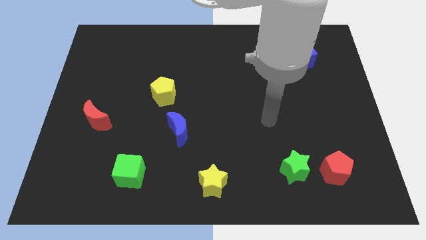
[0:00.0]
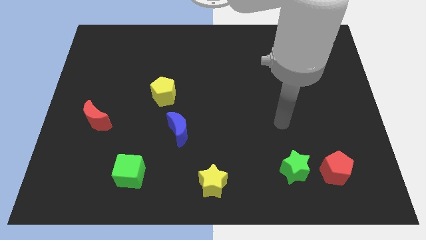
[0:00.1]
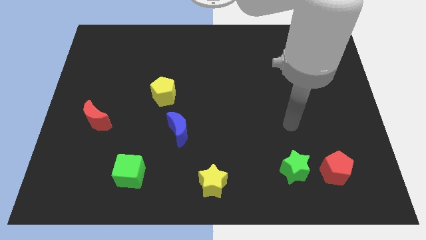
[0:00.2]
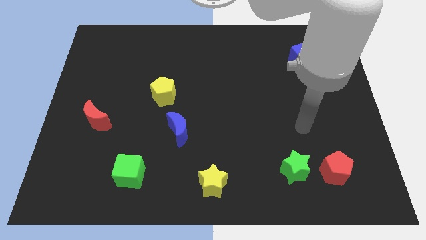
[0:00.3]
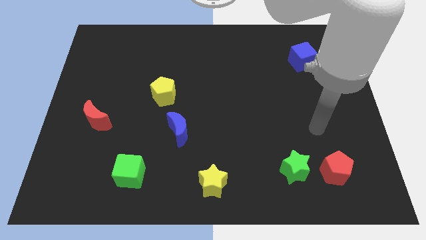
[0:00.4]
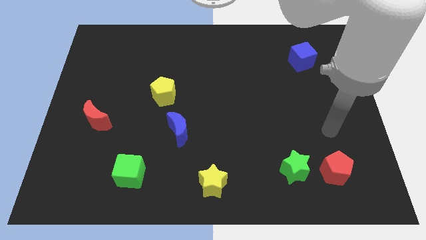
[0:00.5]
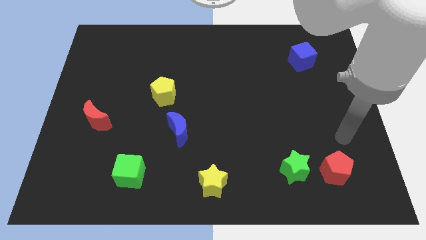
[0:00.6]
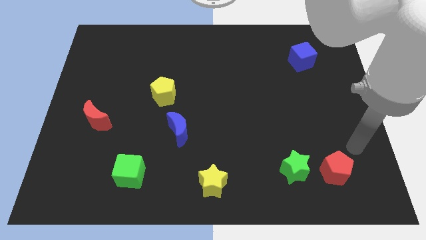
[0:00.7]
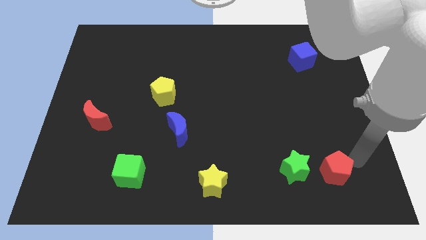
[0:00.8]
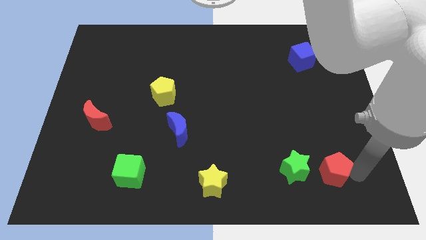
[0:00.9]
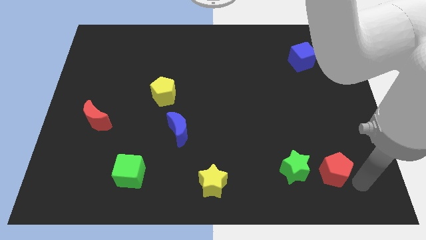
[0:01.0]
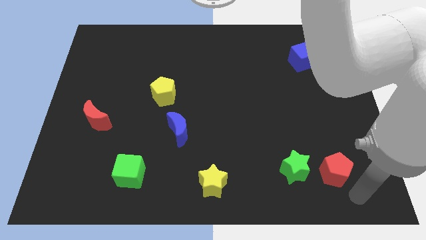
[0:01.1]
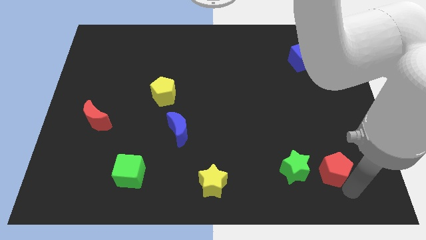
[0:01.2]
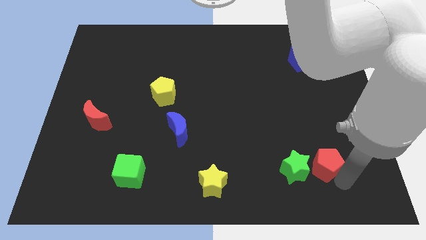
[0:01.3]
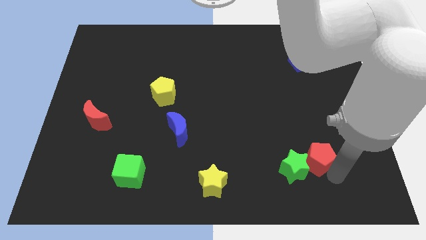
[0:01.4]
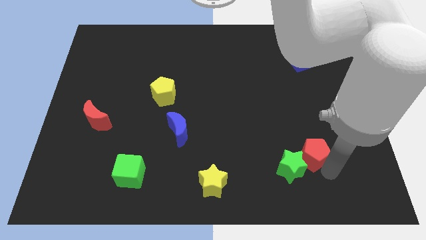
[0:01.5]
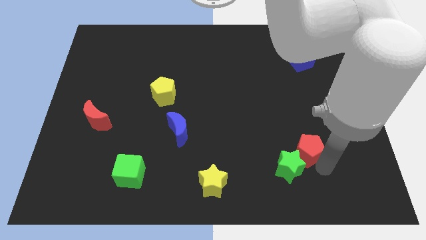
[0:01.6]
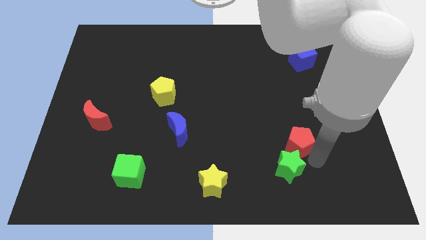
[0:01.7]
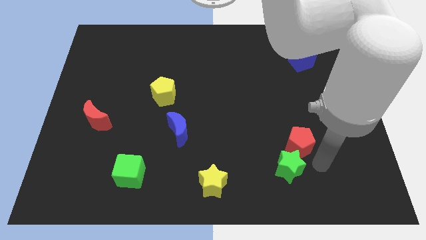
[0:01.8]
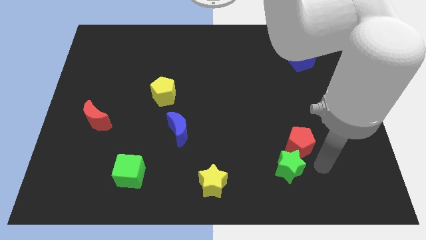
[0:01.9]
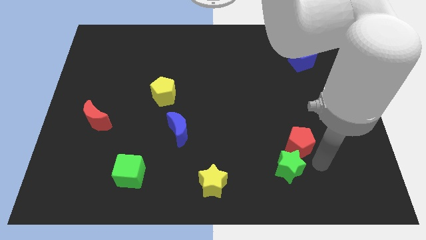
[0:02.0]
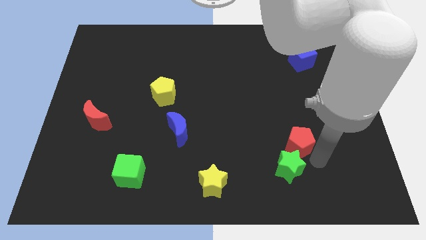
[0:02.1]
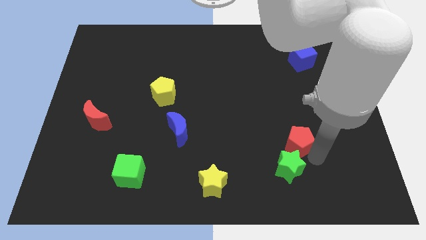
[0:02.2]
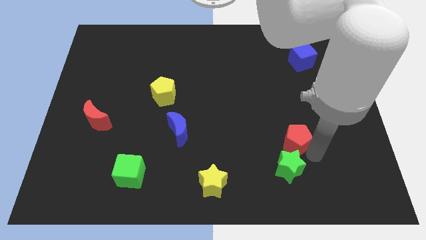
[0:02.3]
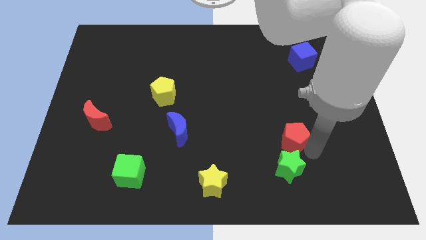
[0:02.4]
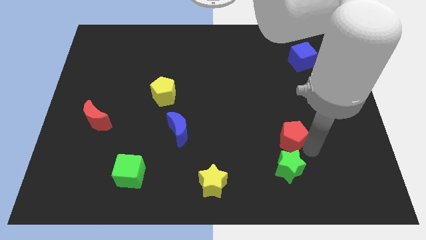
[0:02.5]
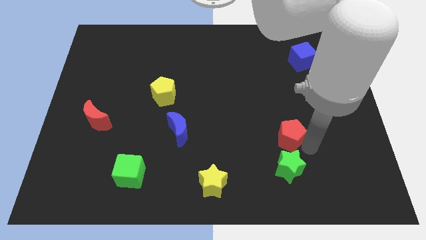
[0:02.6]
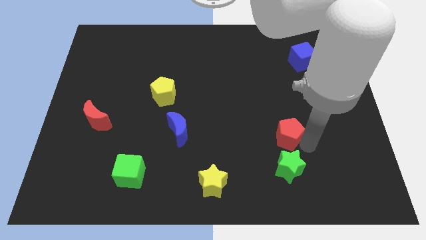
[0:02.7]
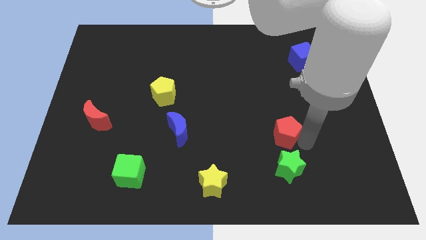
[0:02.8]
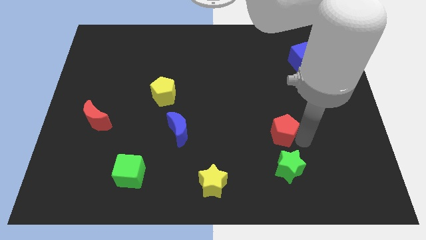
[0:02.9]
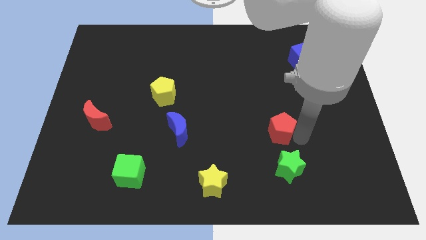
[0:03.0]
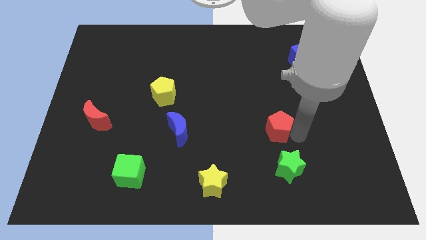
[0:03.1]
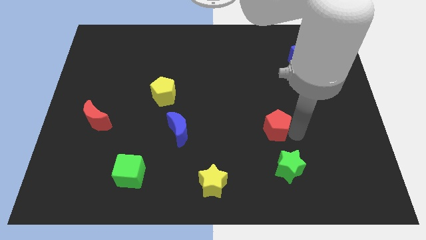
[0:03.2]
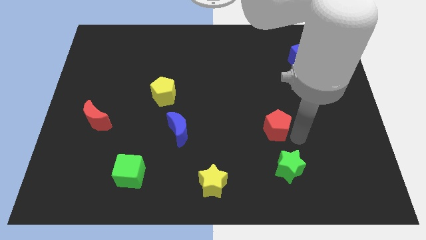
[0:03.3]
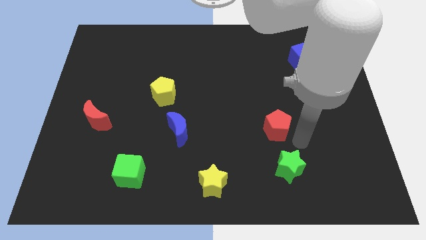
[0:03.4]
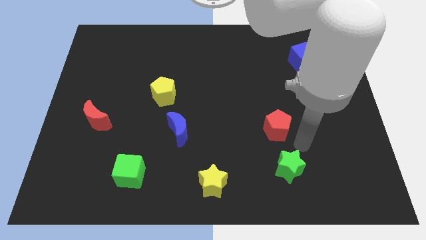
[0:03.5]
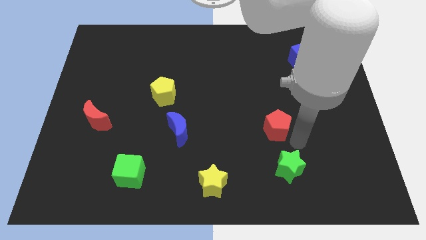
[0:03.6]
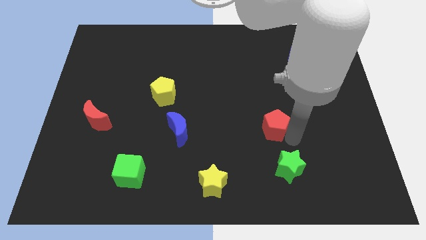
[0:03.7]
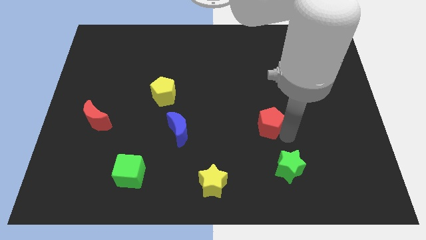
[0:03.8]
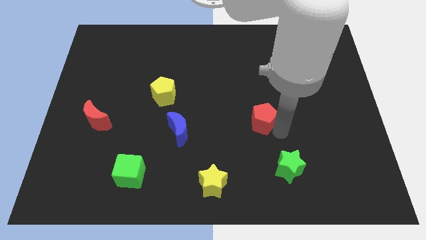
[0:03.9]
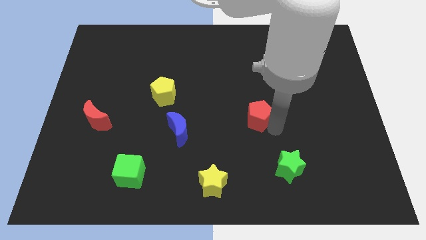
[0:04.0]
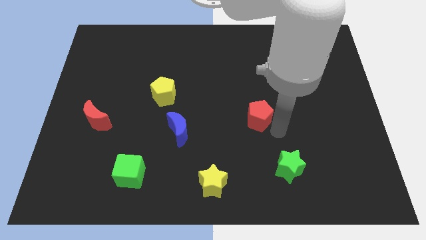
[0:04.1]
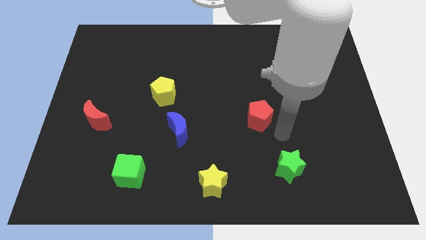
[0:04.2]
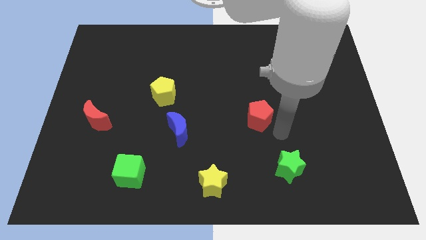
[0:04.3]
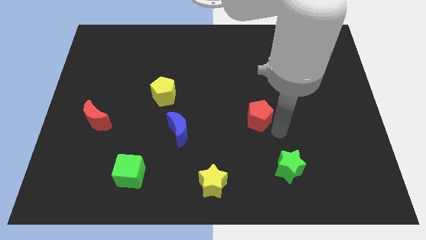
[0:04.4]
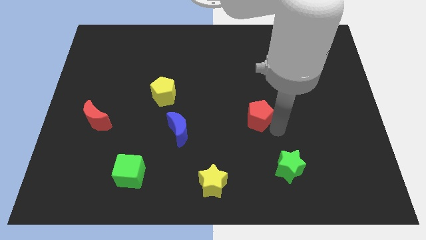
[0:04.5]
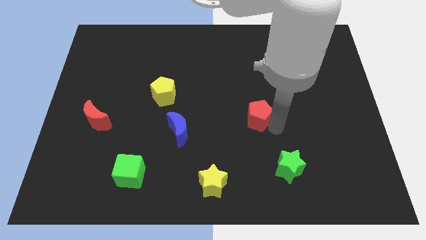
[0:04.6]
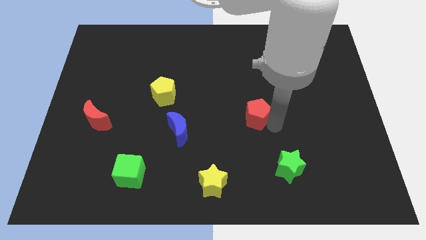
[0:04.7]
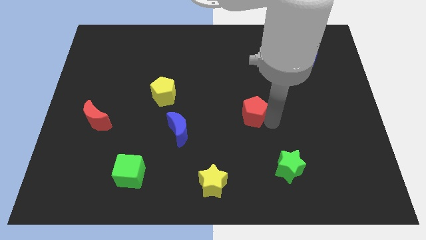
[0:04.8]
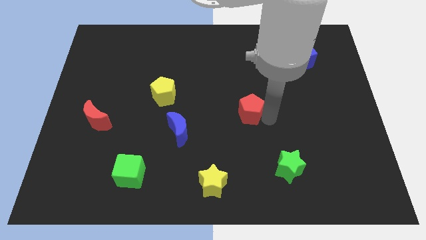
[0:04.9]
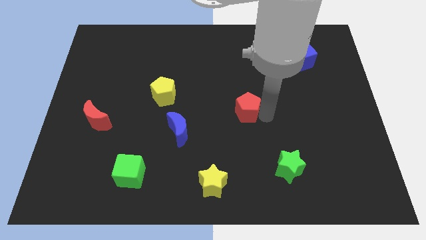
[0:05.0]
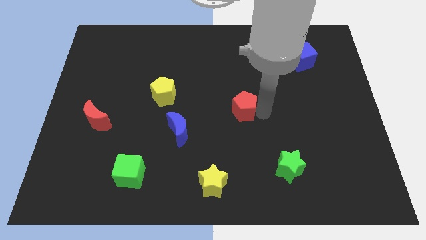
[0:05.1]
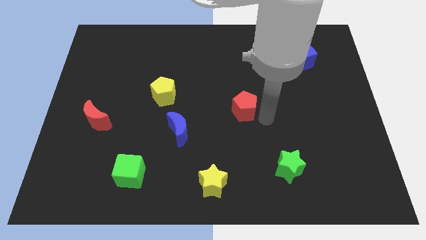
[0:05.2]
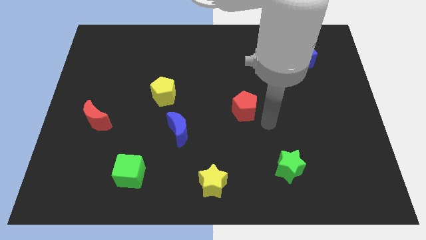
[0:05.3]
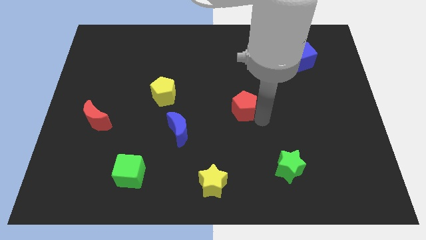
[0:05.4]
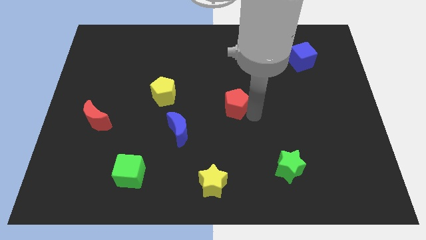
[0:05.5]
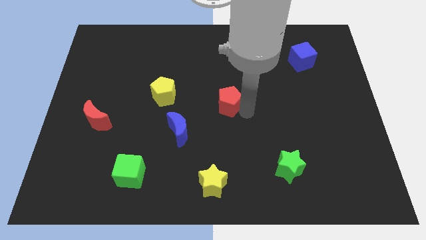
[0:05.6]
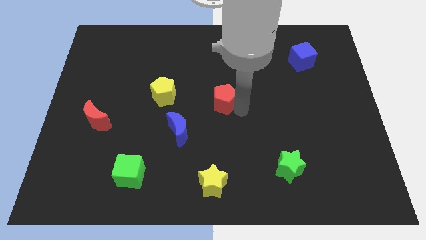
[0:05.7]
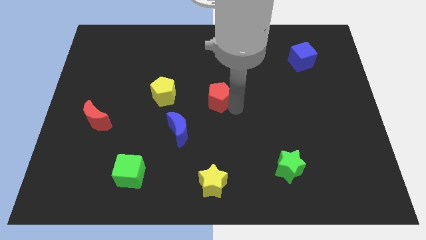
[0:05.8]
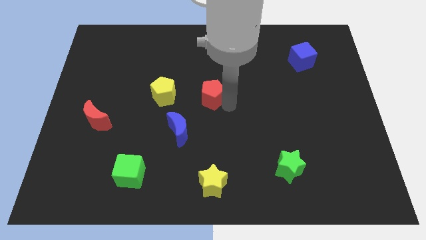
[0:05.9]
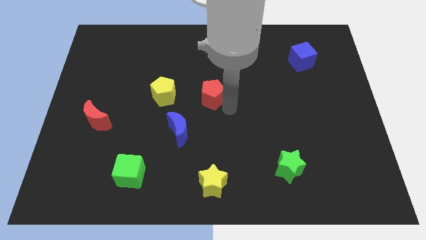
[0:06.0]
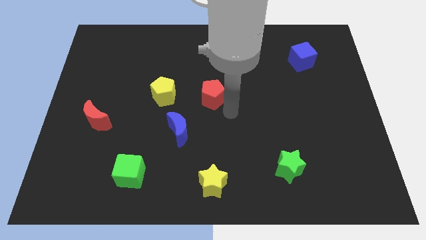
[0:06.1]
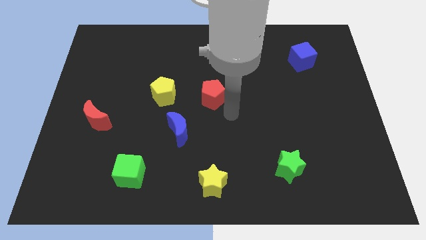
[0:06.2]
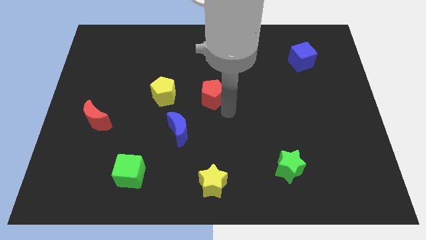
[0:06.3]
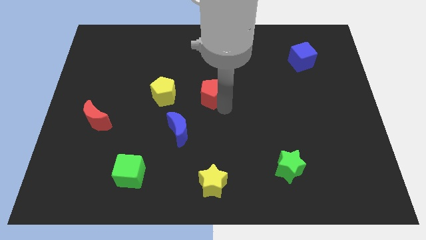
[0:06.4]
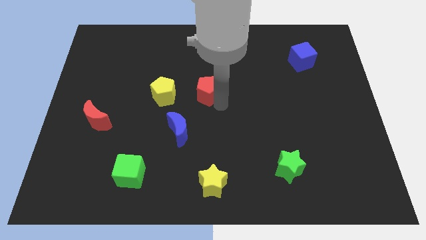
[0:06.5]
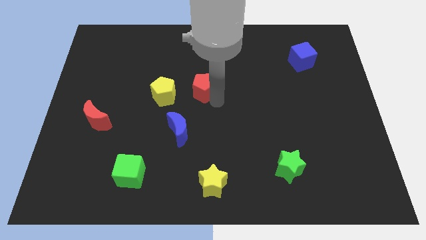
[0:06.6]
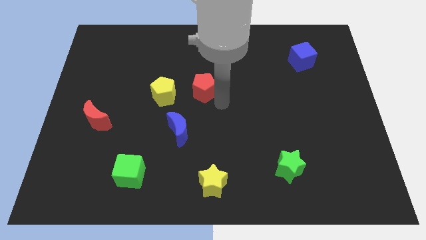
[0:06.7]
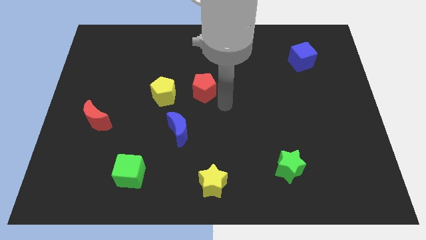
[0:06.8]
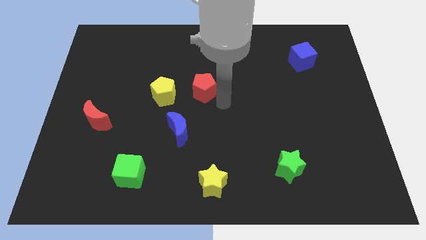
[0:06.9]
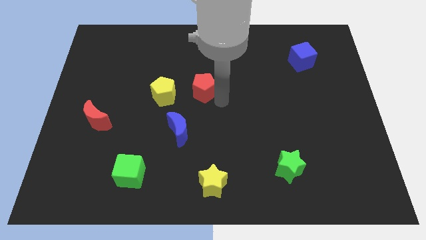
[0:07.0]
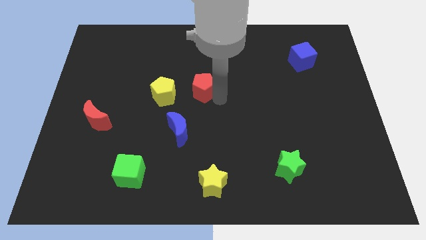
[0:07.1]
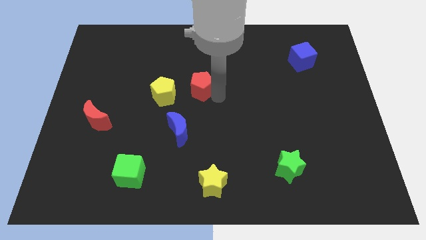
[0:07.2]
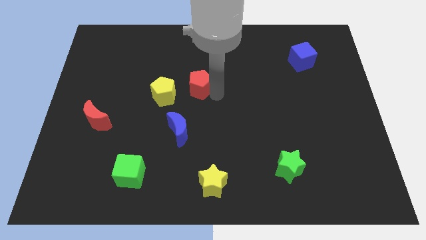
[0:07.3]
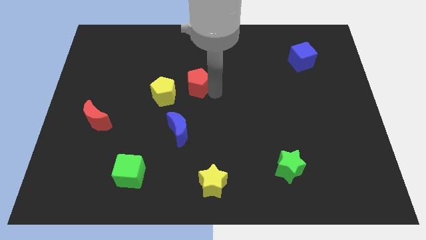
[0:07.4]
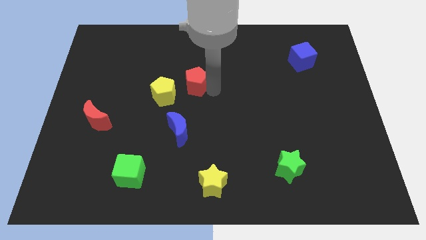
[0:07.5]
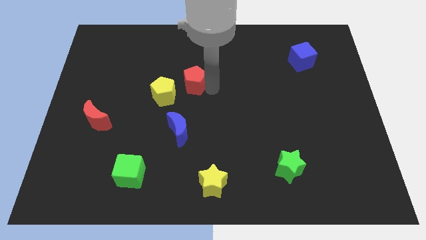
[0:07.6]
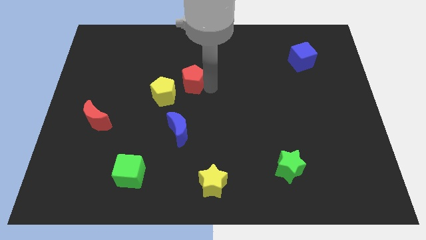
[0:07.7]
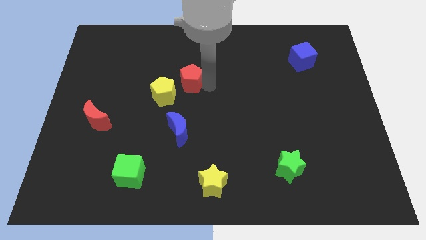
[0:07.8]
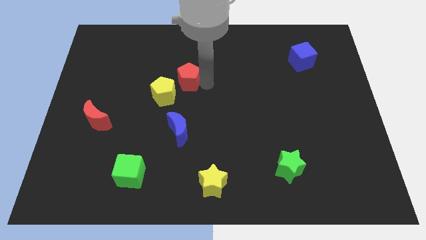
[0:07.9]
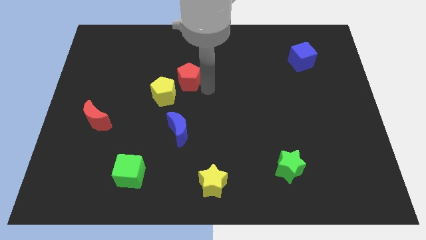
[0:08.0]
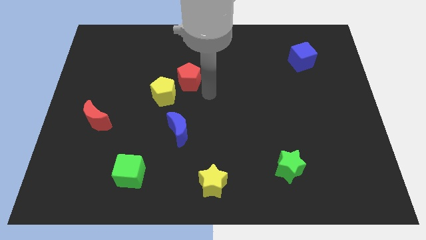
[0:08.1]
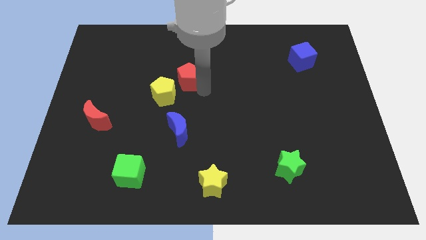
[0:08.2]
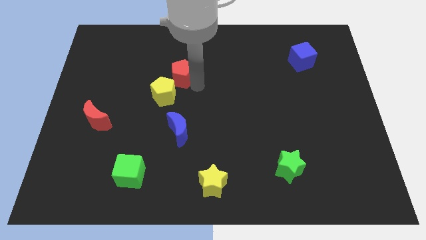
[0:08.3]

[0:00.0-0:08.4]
push the red pentagon above the yellow pentagon
